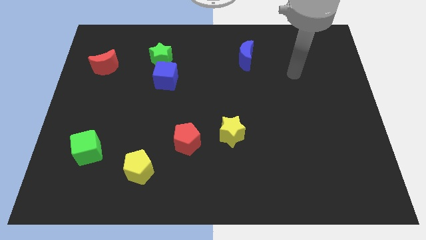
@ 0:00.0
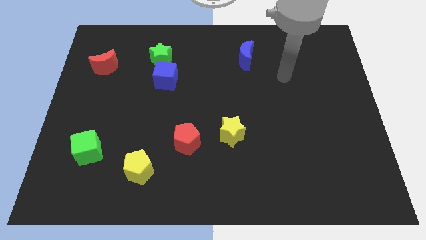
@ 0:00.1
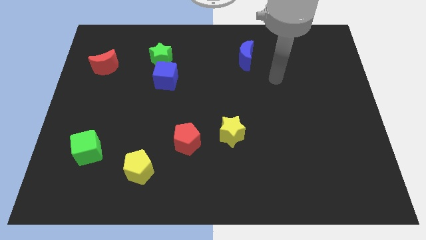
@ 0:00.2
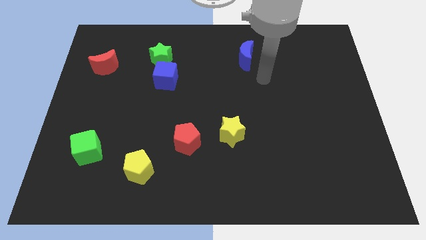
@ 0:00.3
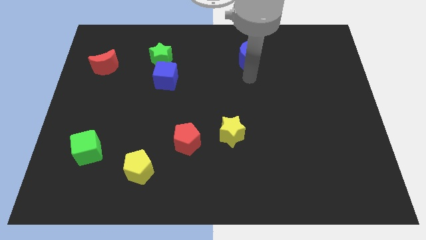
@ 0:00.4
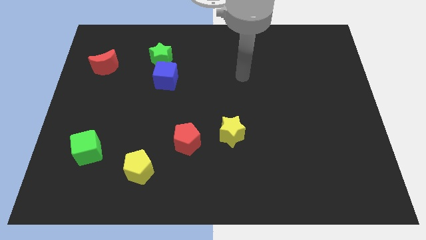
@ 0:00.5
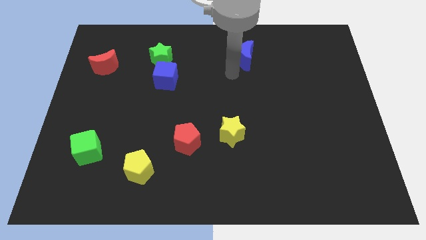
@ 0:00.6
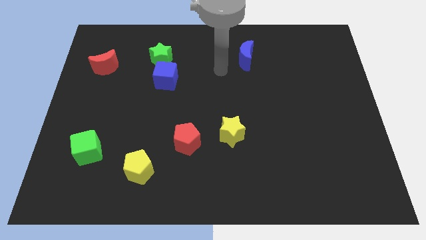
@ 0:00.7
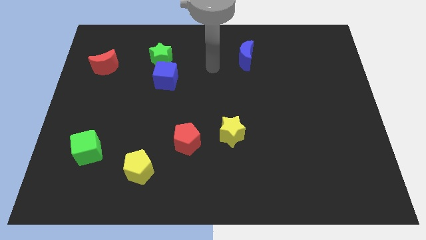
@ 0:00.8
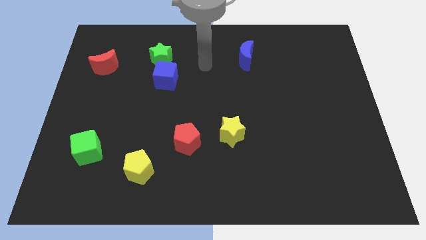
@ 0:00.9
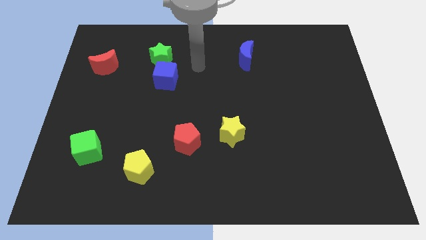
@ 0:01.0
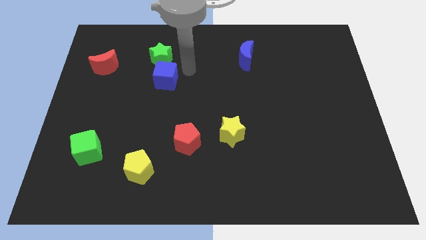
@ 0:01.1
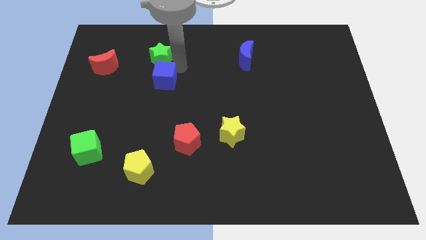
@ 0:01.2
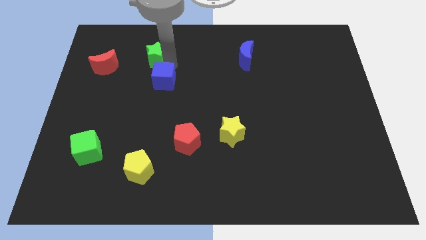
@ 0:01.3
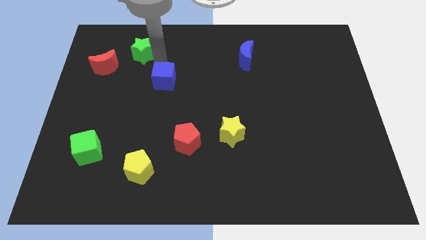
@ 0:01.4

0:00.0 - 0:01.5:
pull the blue cube apart from the green star

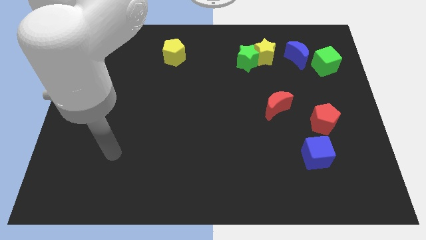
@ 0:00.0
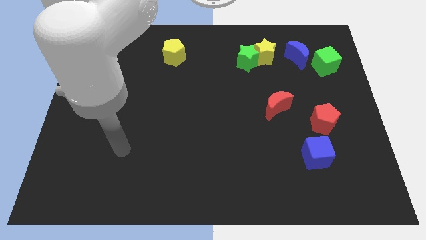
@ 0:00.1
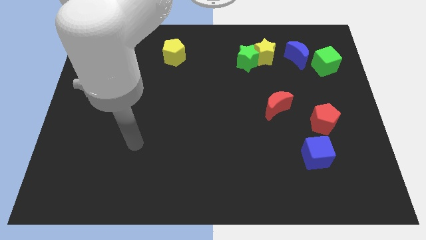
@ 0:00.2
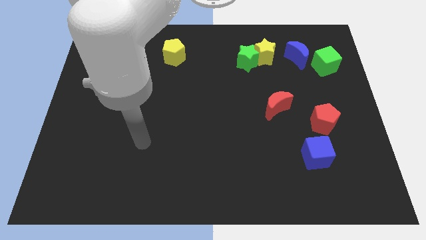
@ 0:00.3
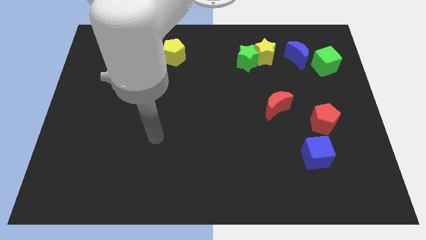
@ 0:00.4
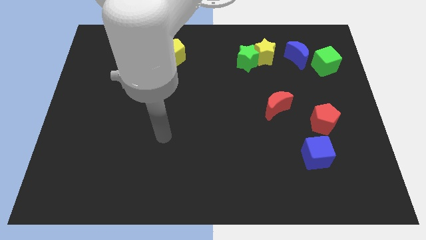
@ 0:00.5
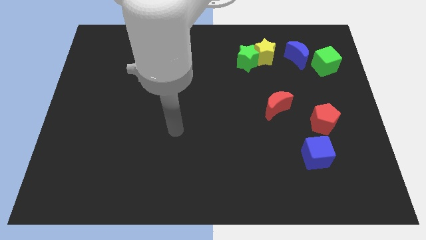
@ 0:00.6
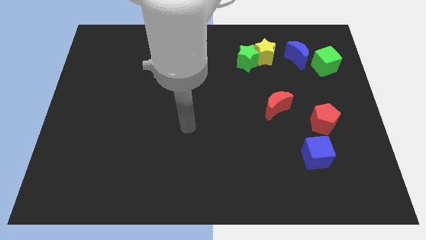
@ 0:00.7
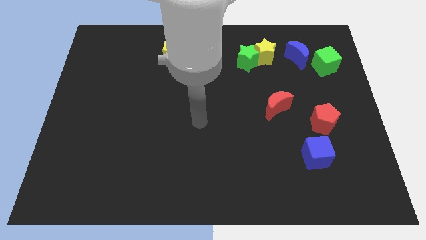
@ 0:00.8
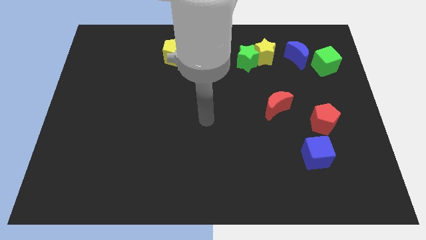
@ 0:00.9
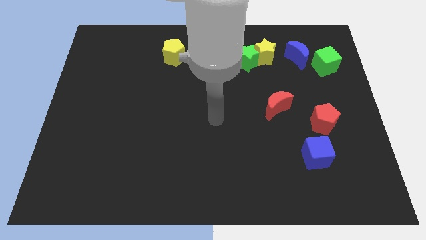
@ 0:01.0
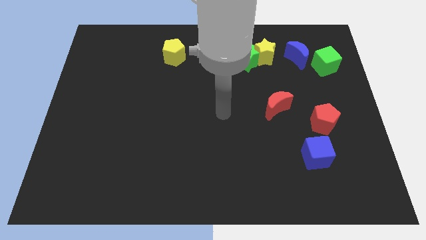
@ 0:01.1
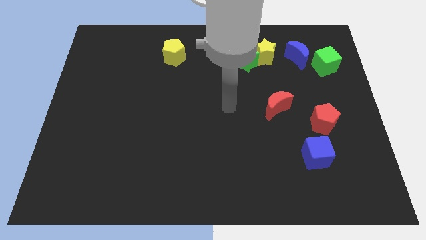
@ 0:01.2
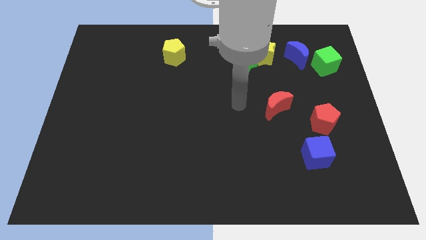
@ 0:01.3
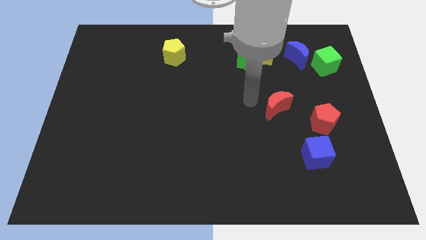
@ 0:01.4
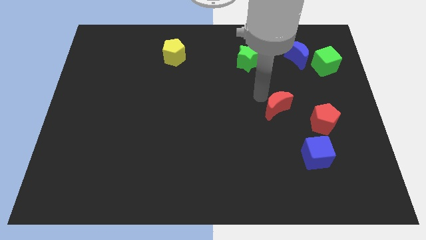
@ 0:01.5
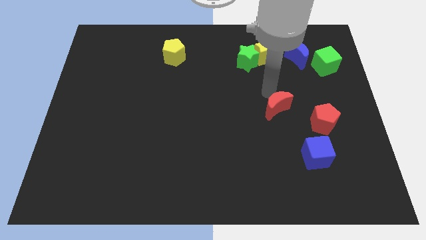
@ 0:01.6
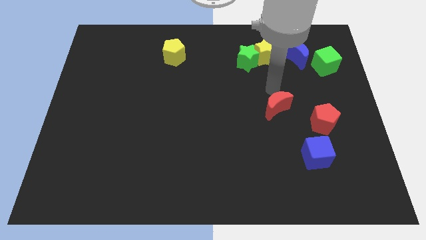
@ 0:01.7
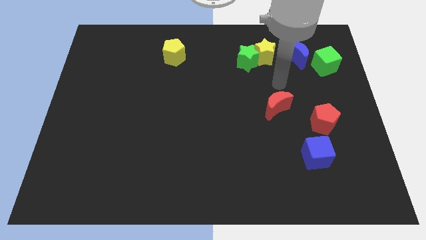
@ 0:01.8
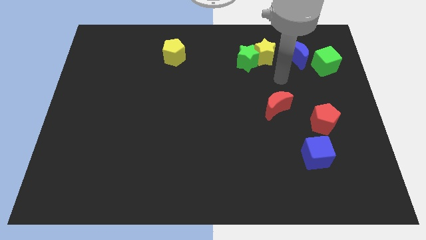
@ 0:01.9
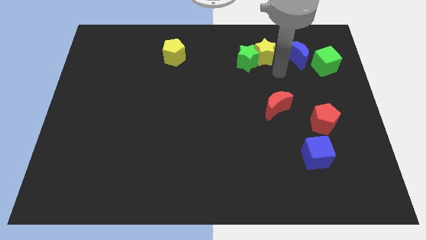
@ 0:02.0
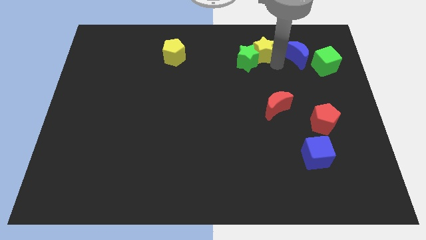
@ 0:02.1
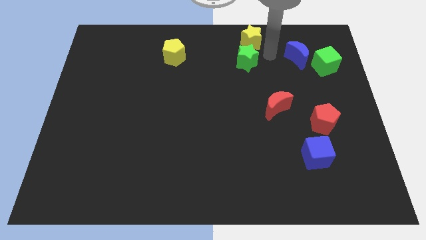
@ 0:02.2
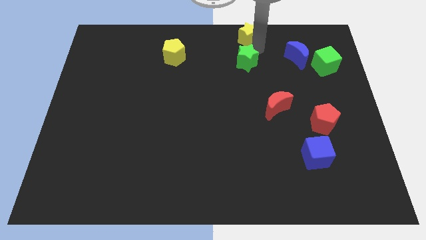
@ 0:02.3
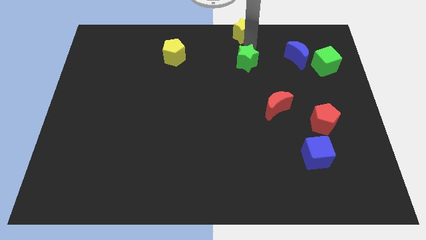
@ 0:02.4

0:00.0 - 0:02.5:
pull the green star apart from the yellow star

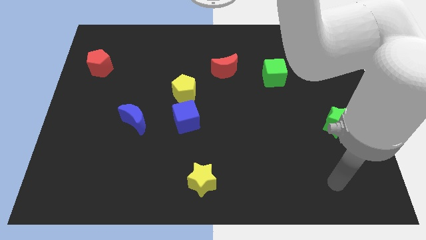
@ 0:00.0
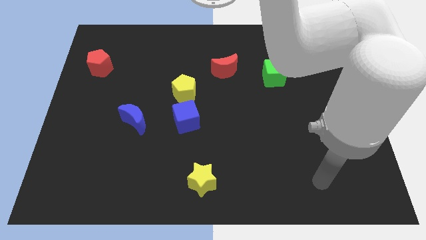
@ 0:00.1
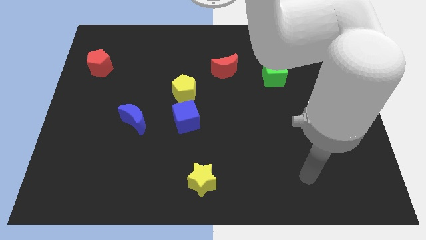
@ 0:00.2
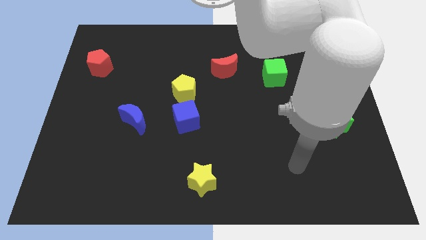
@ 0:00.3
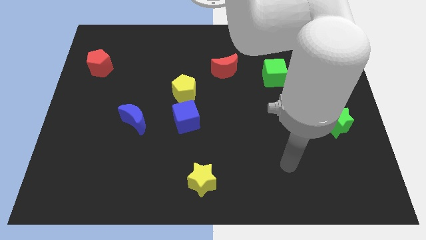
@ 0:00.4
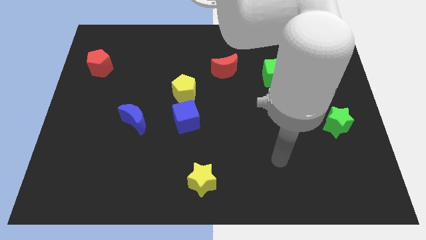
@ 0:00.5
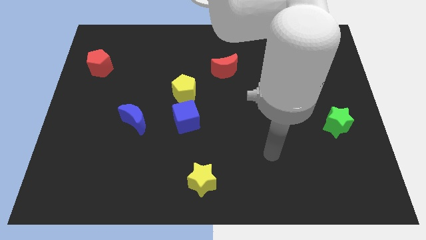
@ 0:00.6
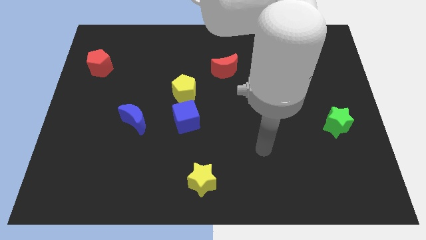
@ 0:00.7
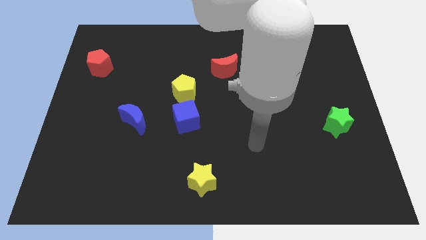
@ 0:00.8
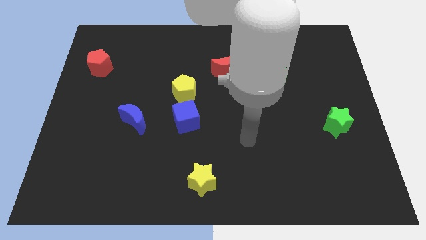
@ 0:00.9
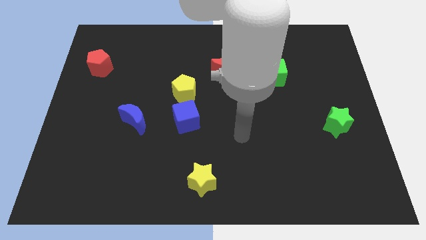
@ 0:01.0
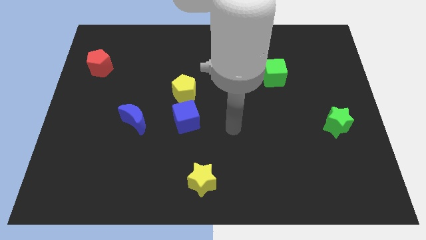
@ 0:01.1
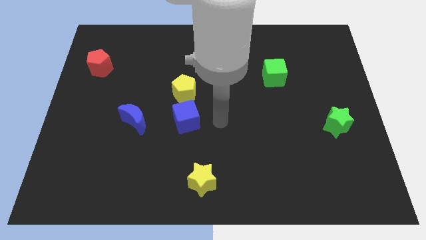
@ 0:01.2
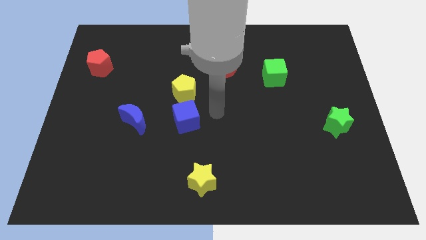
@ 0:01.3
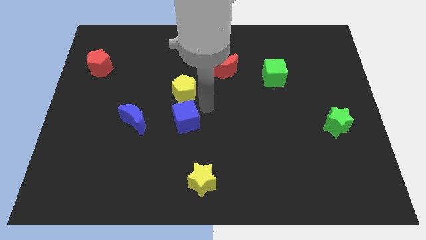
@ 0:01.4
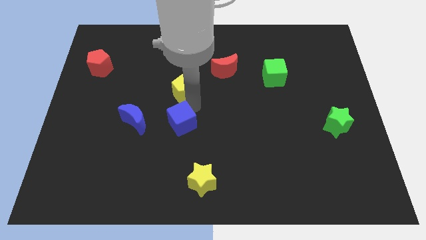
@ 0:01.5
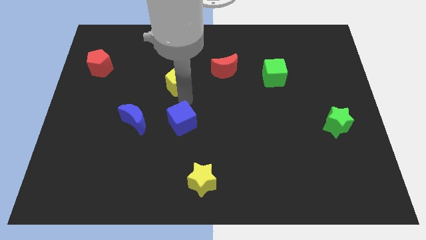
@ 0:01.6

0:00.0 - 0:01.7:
pull the blue cube apart from the yellow pentagon

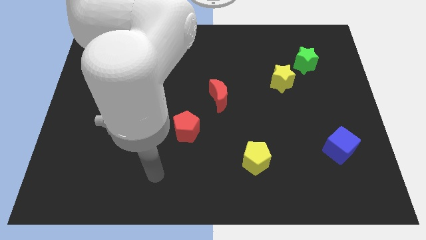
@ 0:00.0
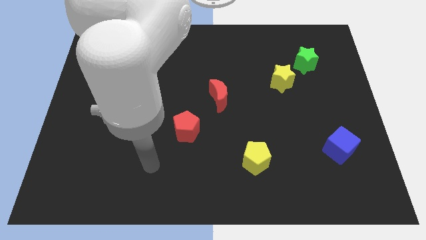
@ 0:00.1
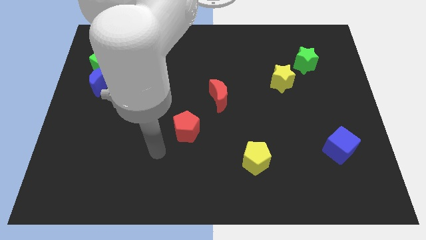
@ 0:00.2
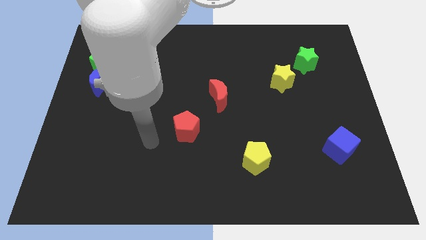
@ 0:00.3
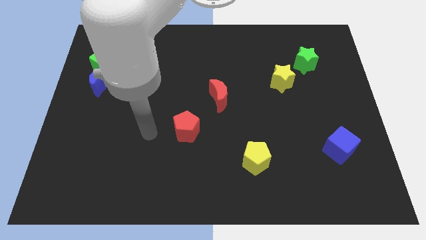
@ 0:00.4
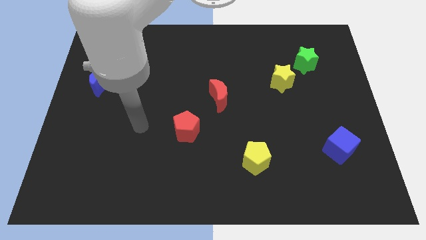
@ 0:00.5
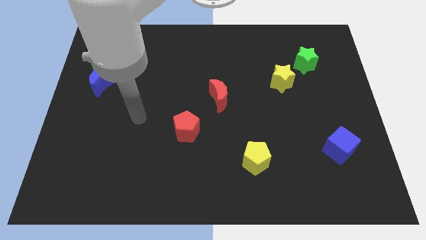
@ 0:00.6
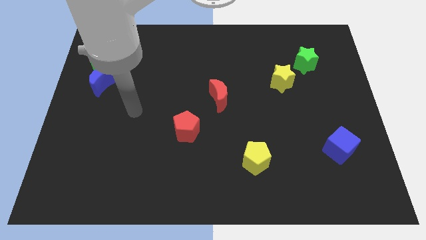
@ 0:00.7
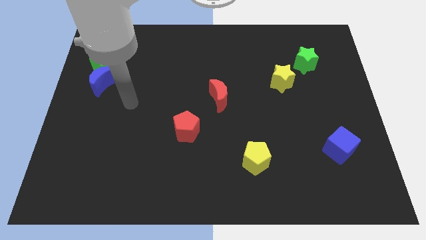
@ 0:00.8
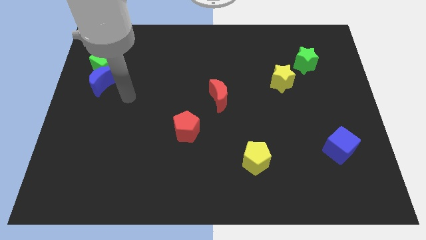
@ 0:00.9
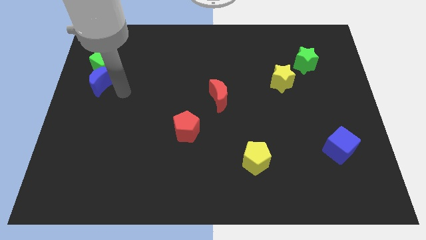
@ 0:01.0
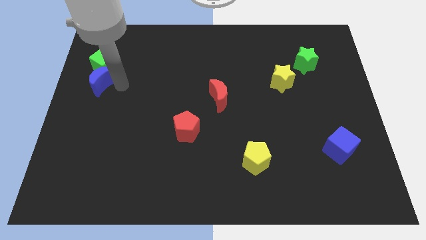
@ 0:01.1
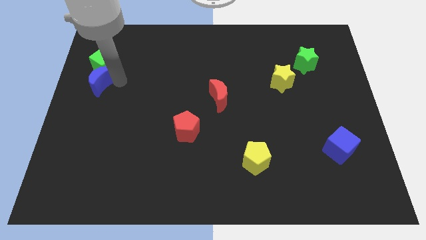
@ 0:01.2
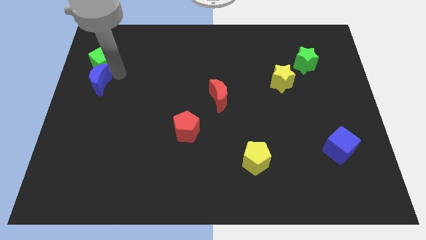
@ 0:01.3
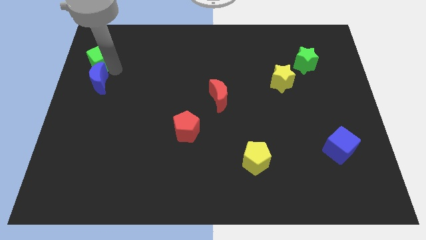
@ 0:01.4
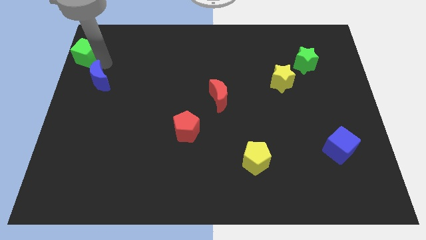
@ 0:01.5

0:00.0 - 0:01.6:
move the blue moon away from the green cube

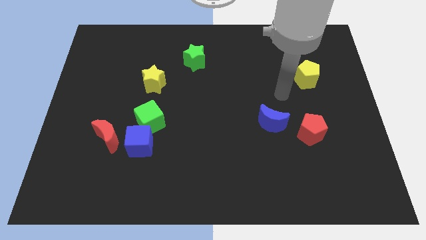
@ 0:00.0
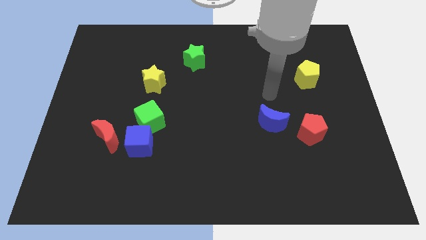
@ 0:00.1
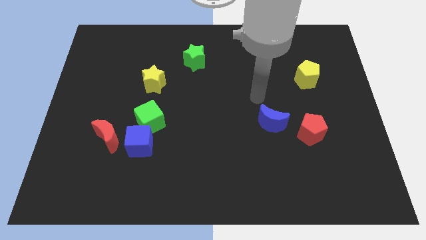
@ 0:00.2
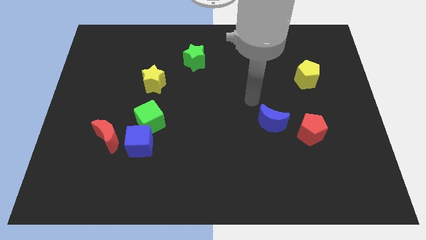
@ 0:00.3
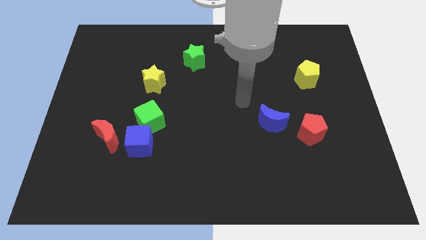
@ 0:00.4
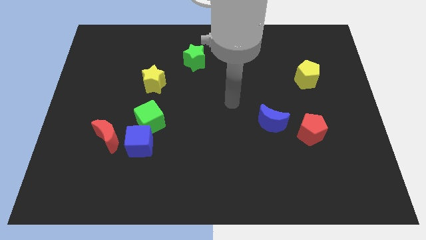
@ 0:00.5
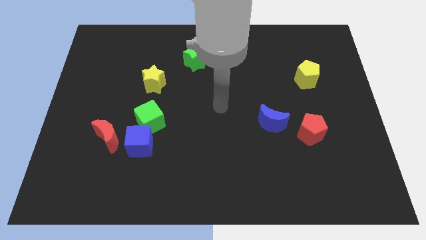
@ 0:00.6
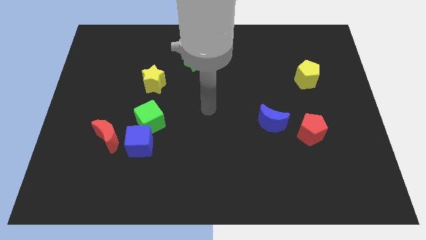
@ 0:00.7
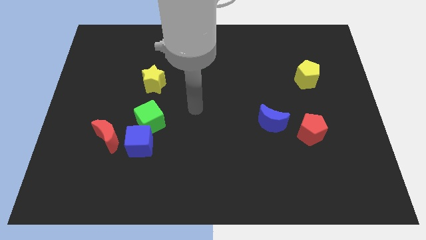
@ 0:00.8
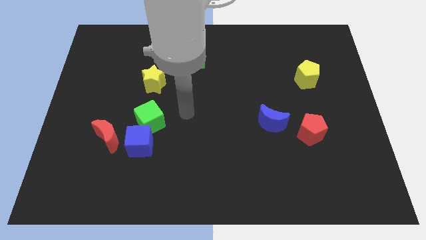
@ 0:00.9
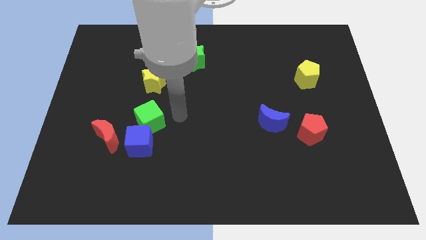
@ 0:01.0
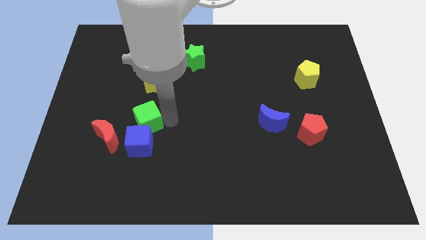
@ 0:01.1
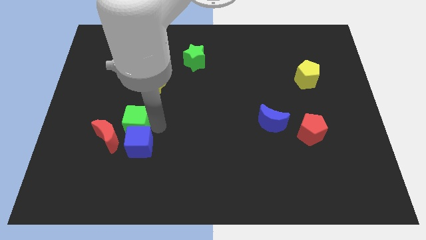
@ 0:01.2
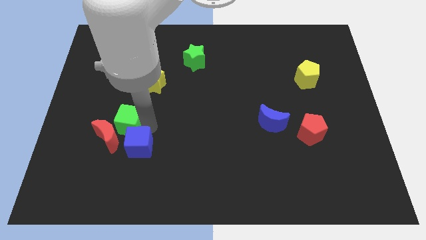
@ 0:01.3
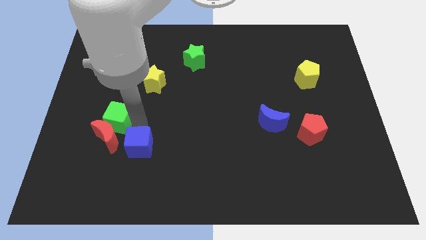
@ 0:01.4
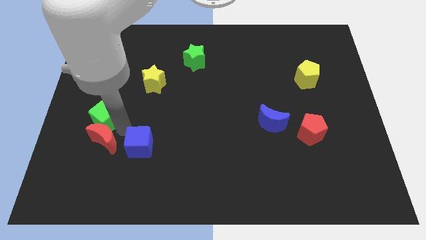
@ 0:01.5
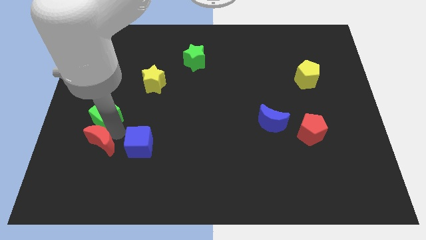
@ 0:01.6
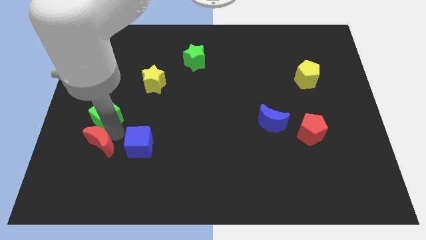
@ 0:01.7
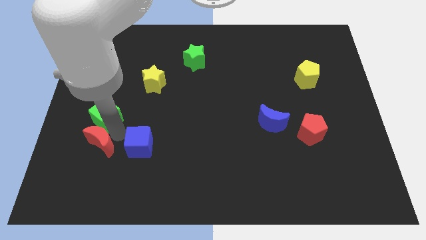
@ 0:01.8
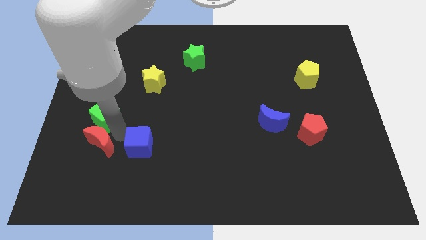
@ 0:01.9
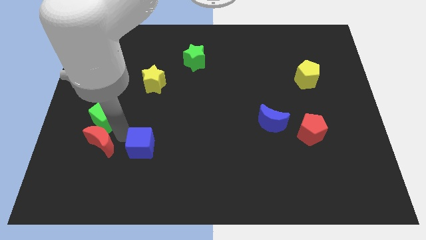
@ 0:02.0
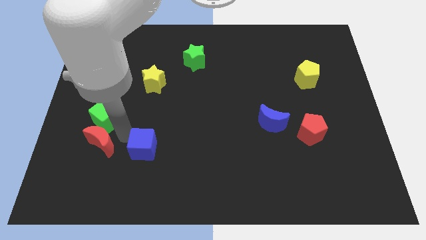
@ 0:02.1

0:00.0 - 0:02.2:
pull the blue cube apart from the green cube and red moon
